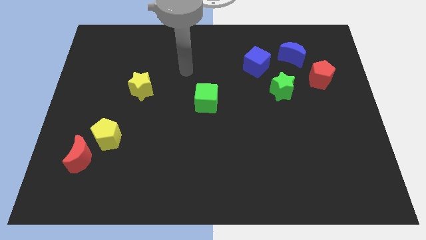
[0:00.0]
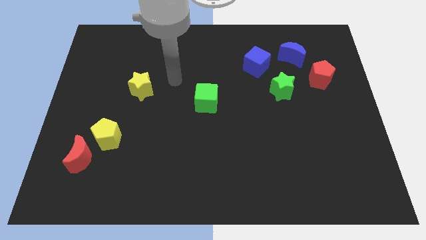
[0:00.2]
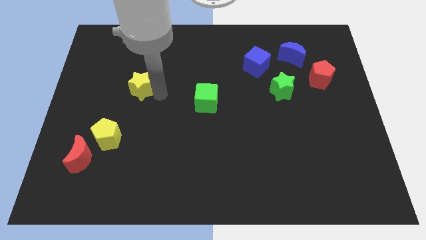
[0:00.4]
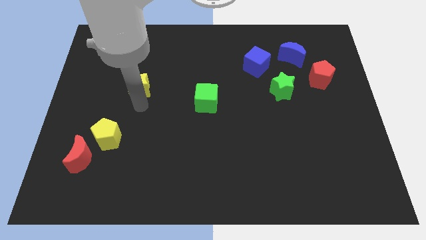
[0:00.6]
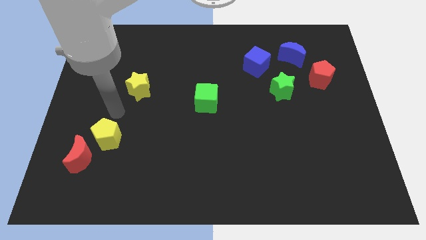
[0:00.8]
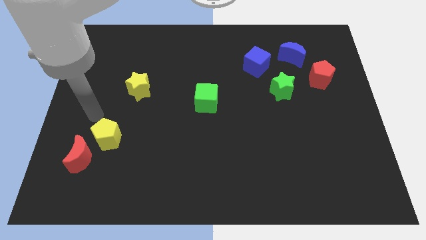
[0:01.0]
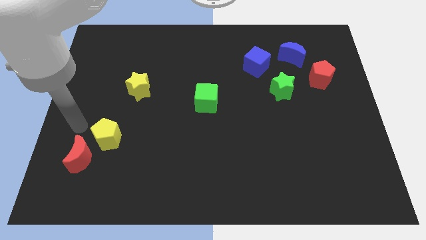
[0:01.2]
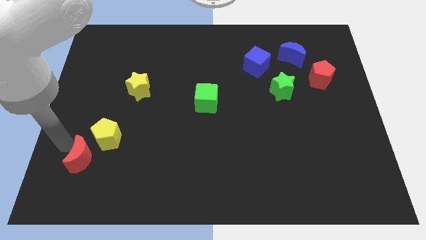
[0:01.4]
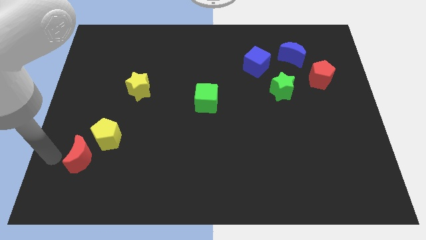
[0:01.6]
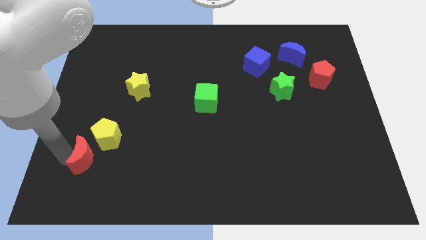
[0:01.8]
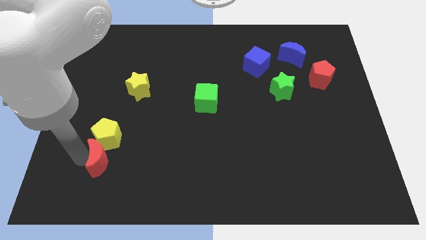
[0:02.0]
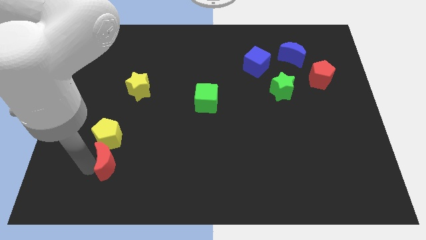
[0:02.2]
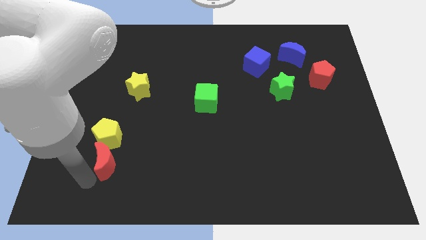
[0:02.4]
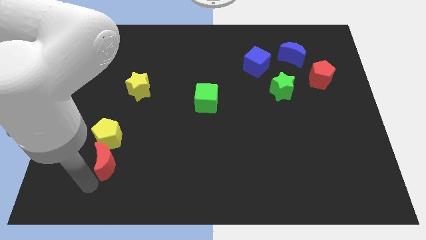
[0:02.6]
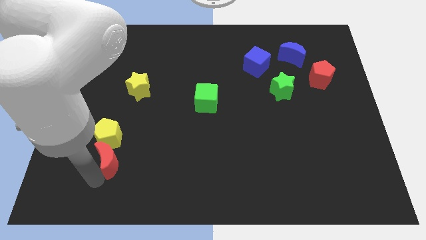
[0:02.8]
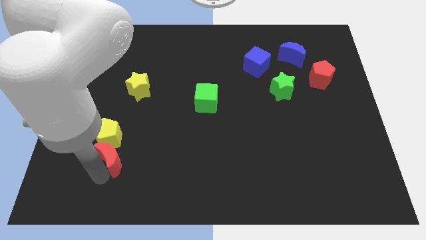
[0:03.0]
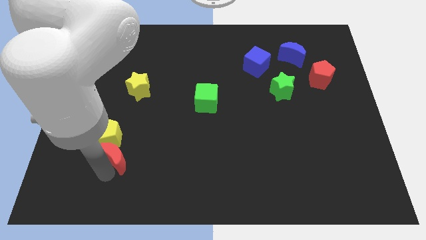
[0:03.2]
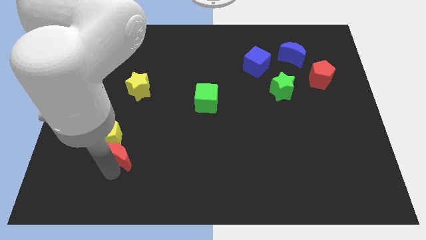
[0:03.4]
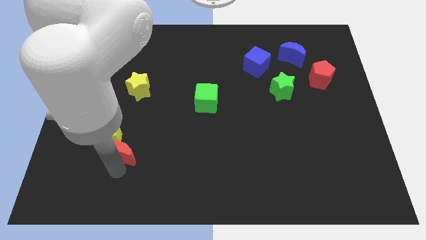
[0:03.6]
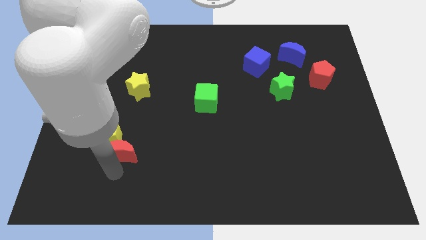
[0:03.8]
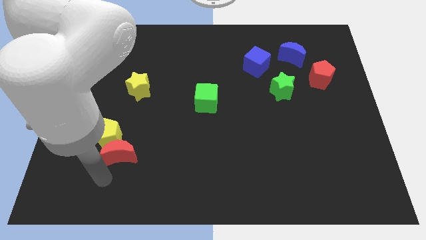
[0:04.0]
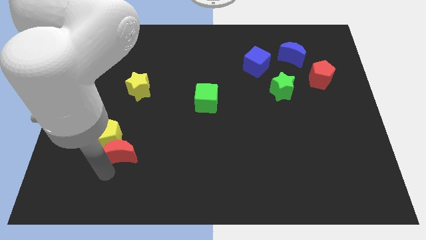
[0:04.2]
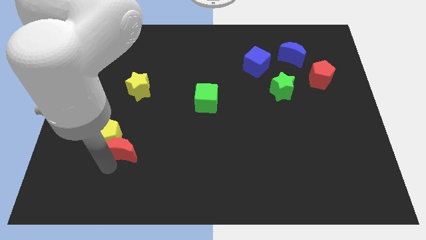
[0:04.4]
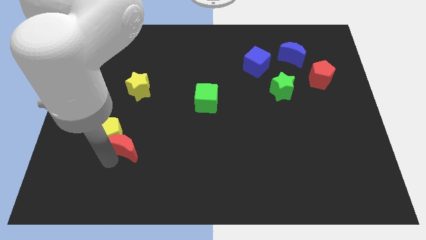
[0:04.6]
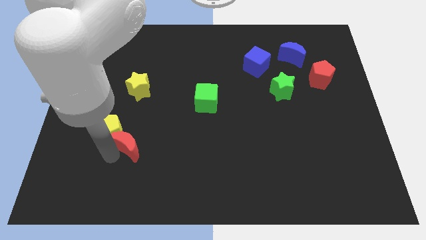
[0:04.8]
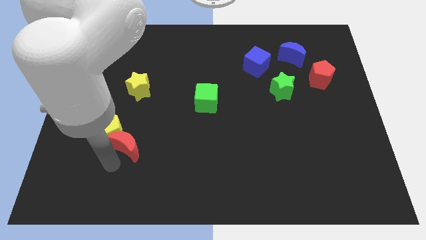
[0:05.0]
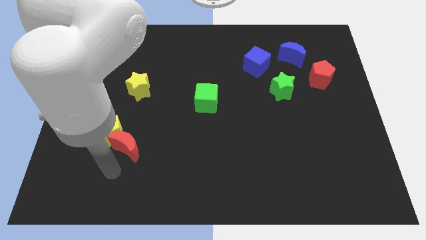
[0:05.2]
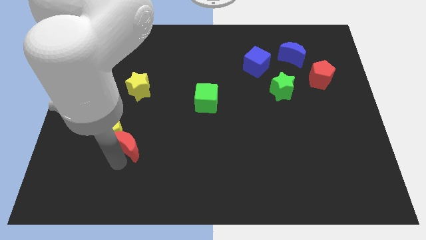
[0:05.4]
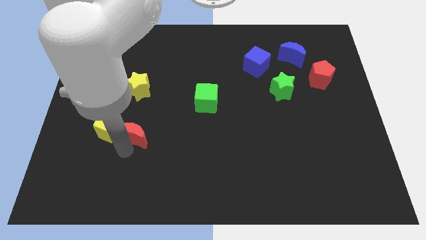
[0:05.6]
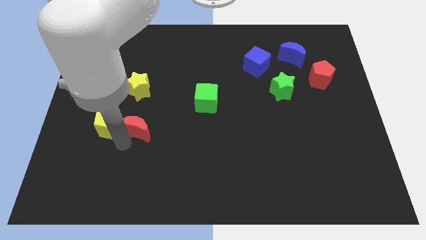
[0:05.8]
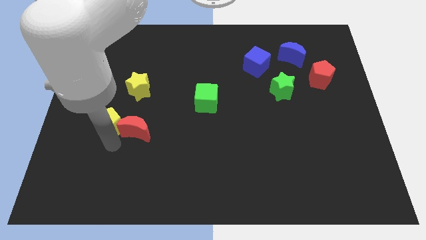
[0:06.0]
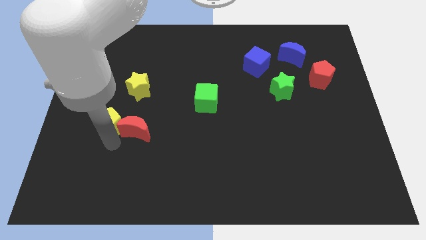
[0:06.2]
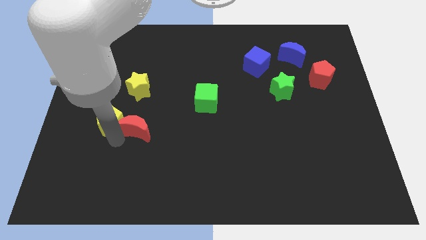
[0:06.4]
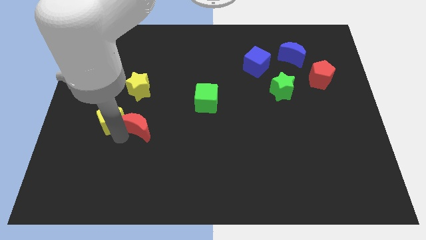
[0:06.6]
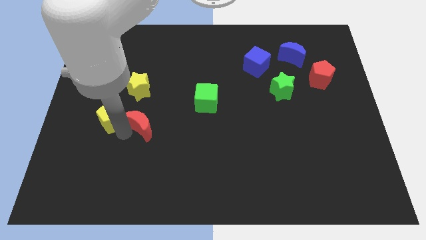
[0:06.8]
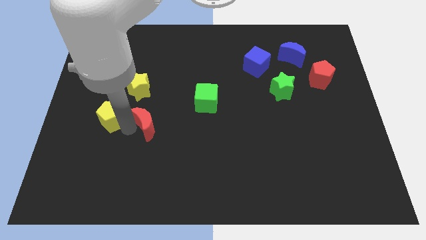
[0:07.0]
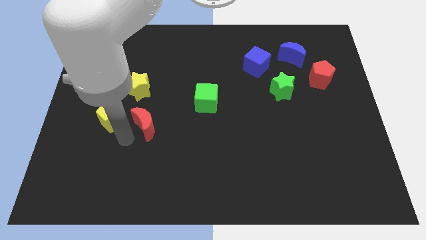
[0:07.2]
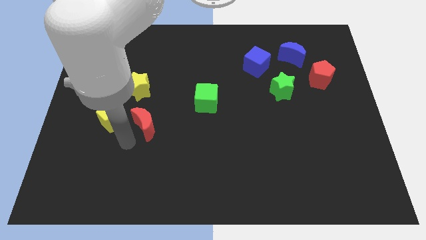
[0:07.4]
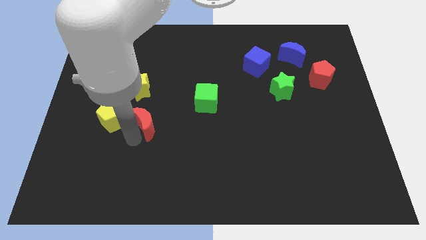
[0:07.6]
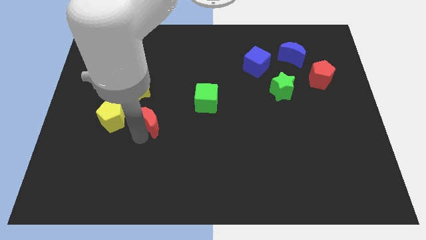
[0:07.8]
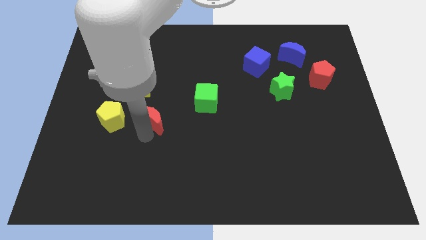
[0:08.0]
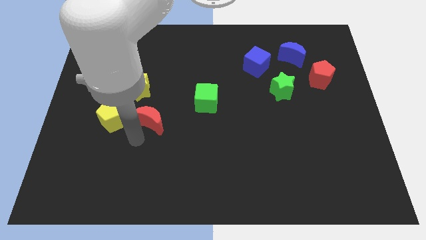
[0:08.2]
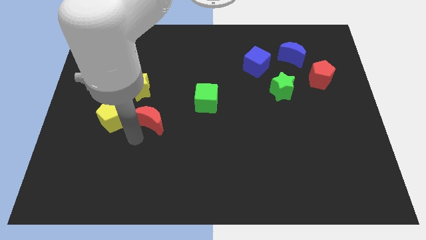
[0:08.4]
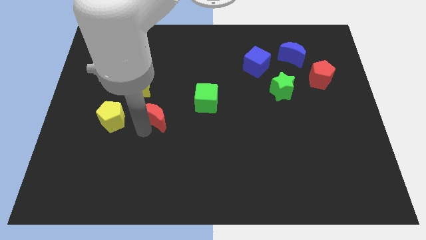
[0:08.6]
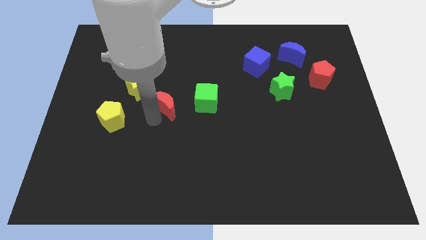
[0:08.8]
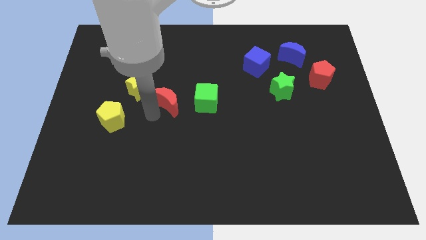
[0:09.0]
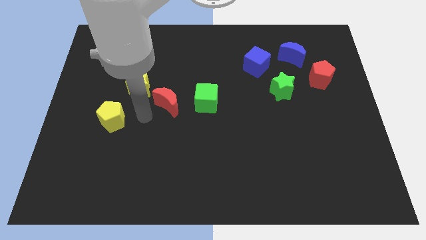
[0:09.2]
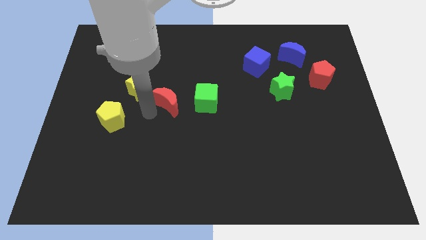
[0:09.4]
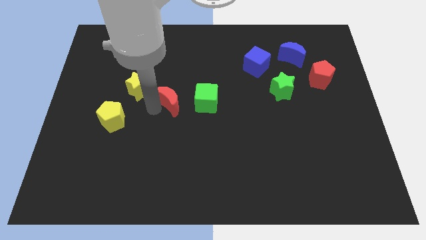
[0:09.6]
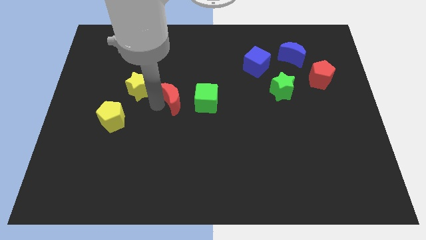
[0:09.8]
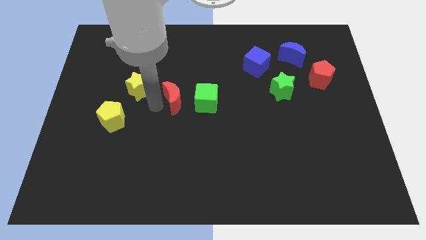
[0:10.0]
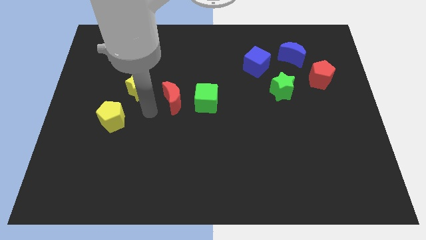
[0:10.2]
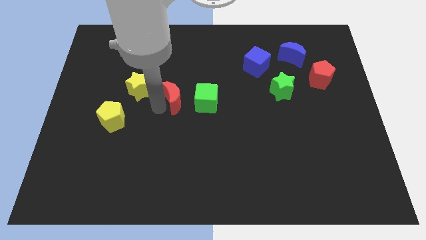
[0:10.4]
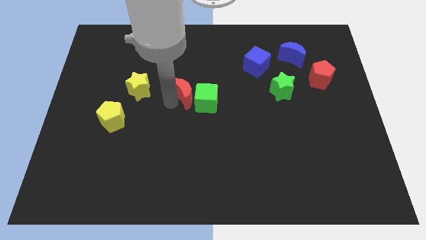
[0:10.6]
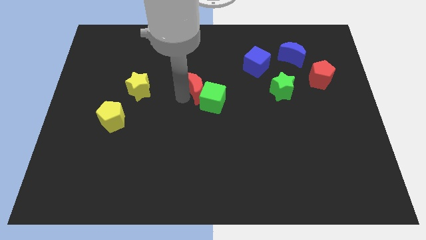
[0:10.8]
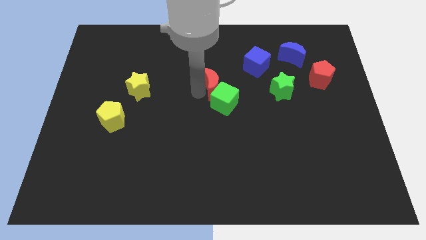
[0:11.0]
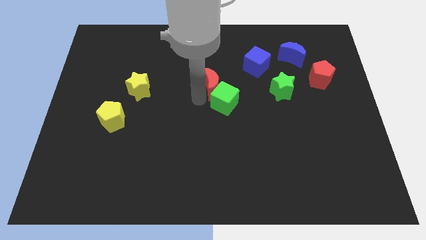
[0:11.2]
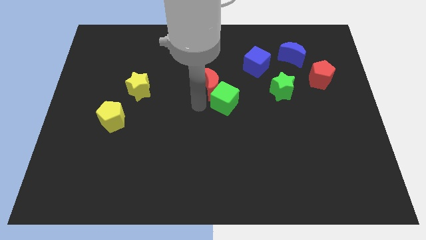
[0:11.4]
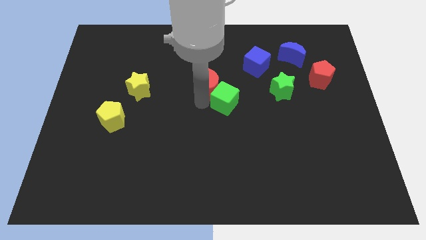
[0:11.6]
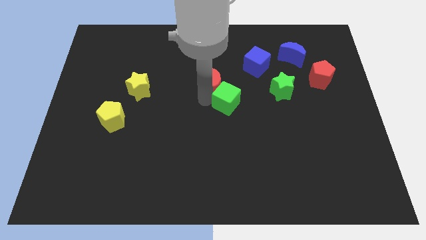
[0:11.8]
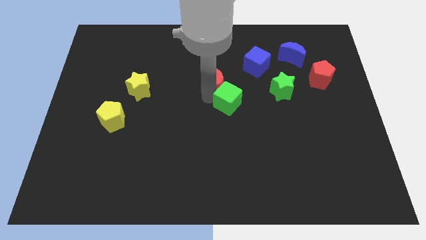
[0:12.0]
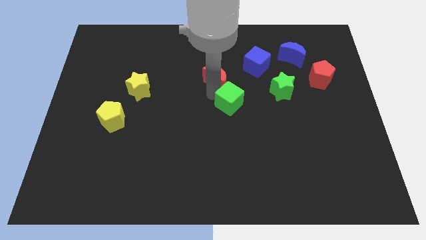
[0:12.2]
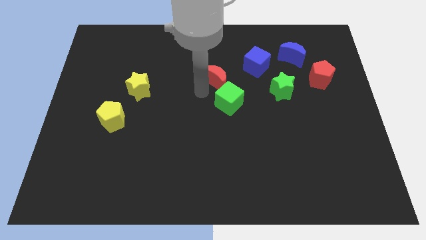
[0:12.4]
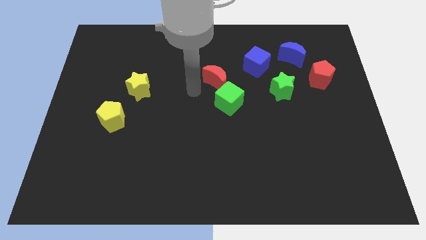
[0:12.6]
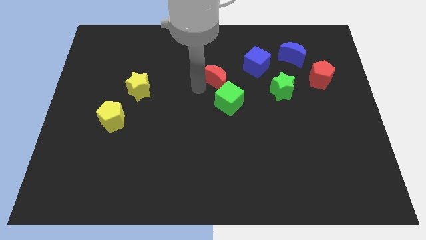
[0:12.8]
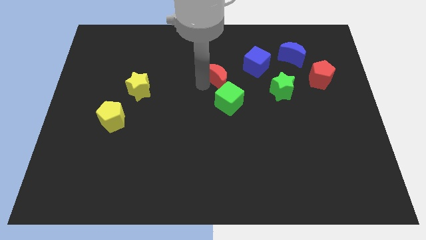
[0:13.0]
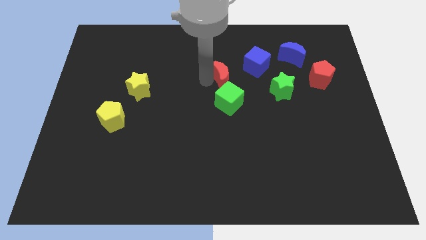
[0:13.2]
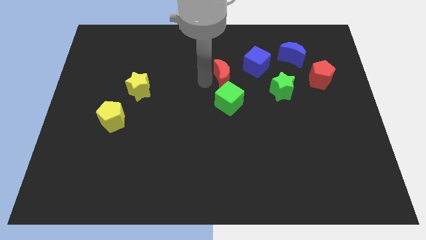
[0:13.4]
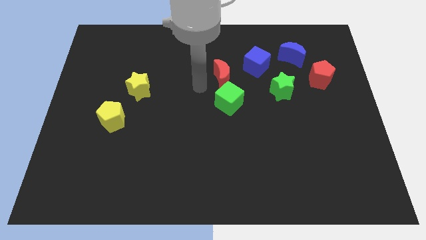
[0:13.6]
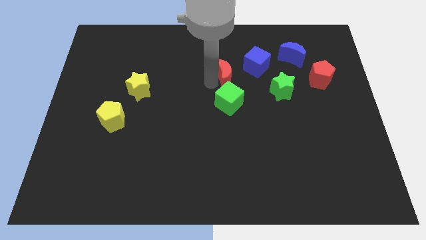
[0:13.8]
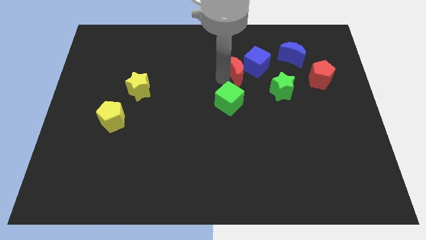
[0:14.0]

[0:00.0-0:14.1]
push the red moon next to the blue cube
